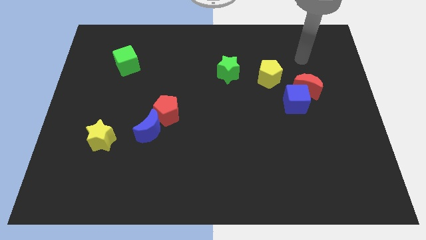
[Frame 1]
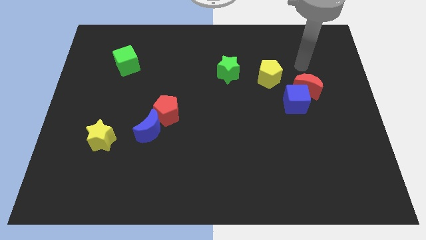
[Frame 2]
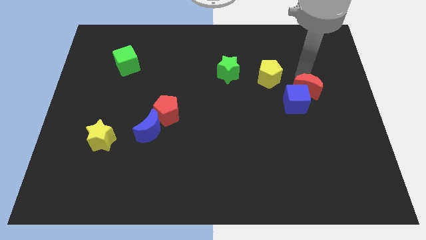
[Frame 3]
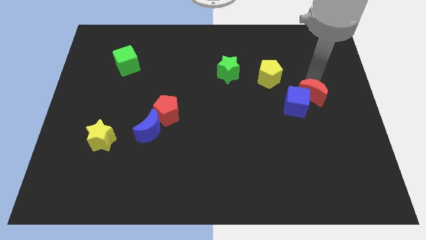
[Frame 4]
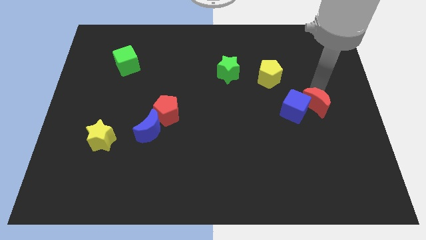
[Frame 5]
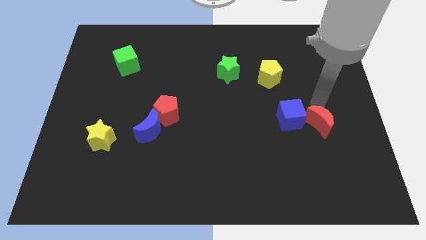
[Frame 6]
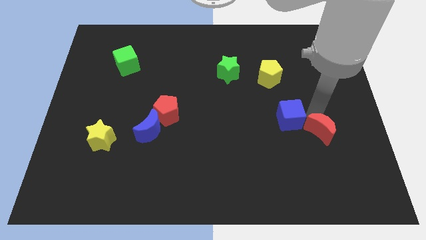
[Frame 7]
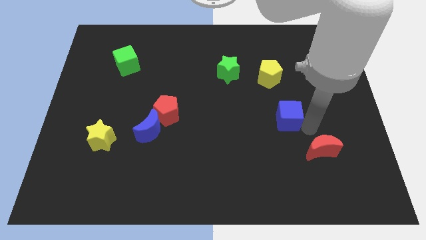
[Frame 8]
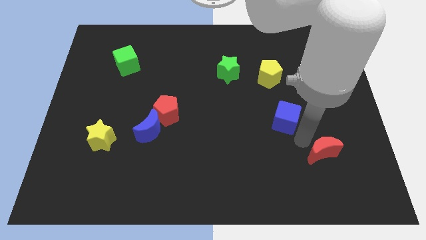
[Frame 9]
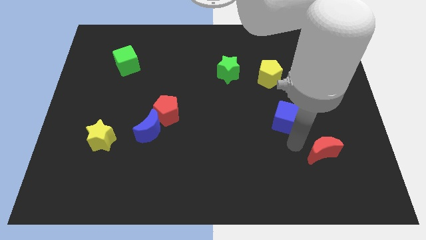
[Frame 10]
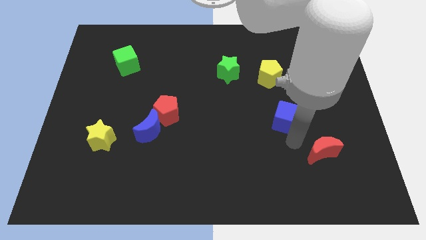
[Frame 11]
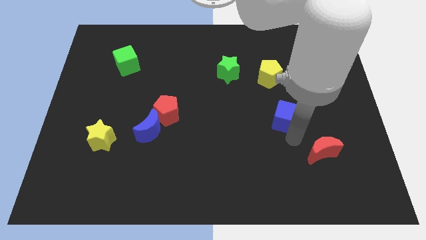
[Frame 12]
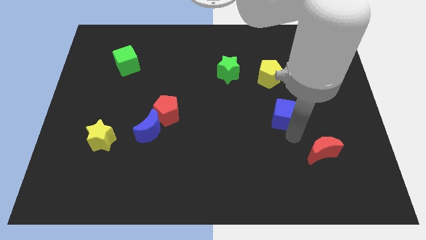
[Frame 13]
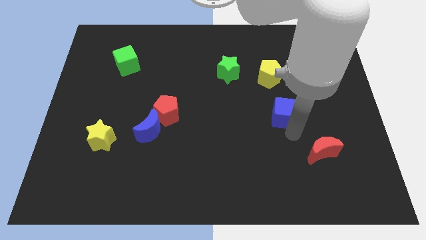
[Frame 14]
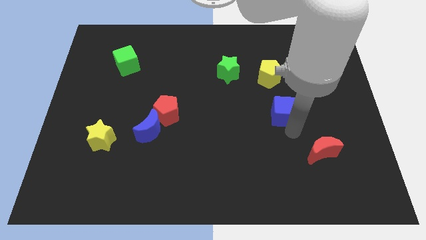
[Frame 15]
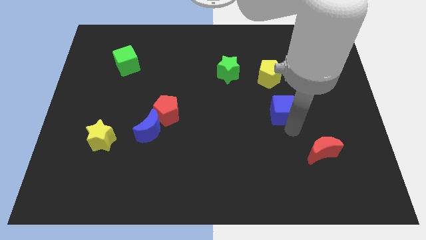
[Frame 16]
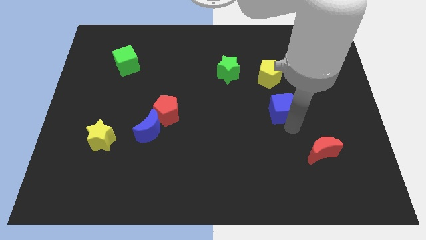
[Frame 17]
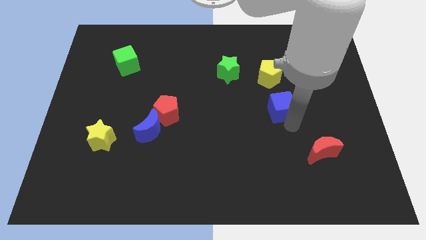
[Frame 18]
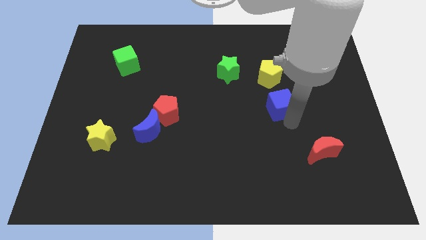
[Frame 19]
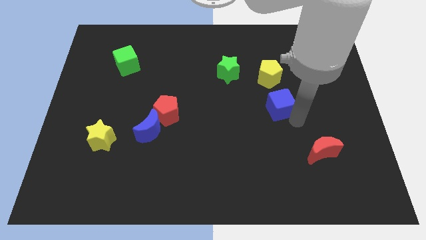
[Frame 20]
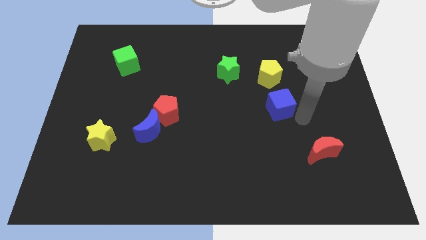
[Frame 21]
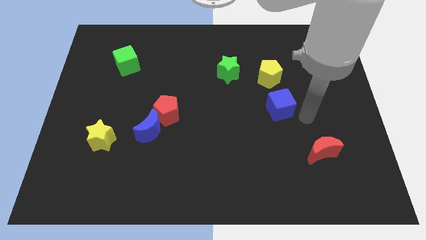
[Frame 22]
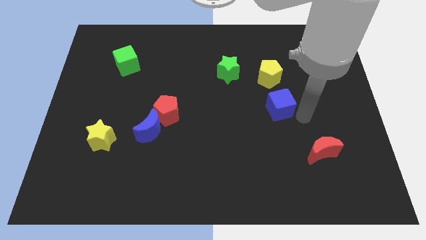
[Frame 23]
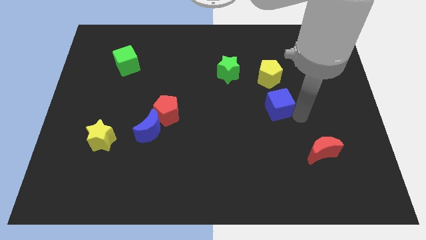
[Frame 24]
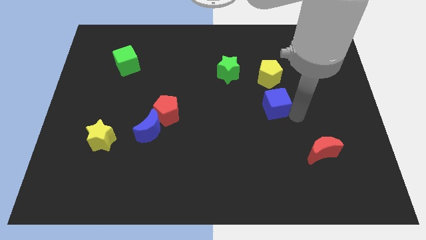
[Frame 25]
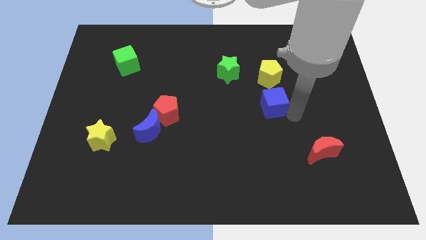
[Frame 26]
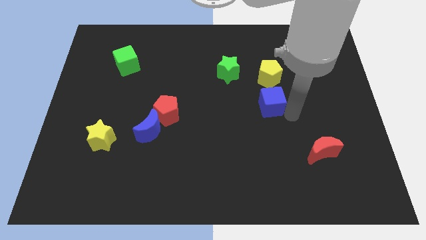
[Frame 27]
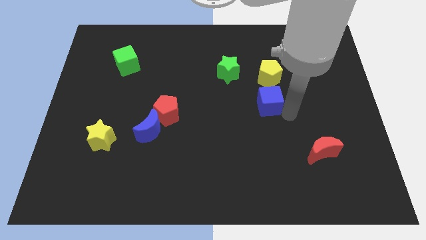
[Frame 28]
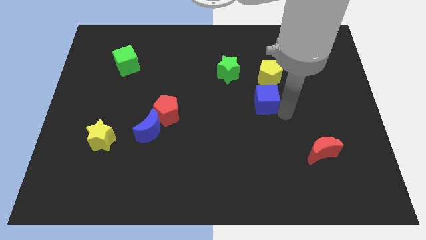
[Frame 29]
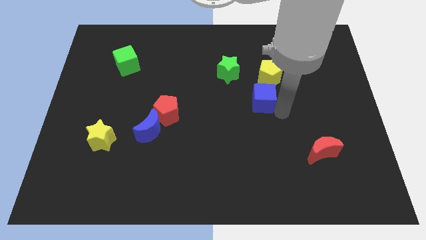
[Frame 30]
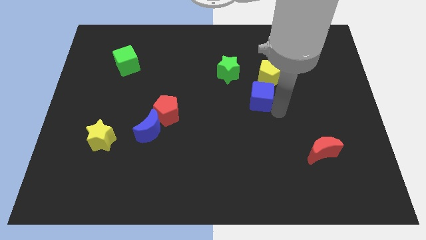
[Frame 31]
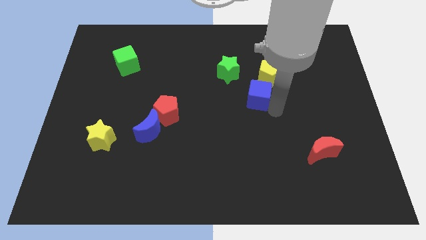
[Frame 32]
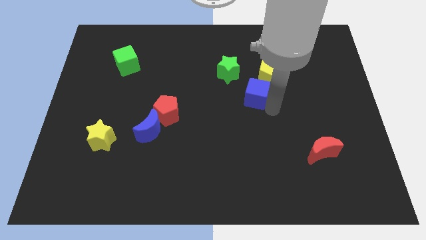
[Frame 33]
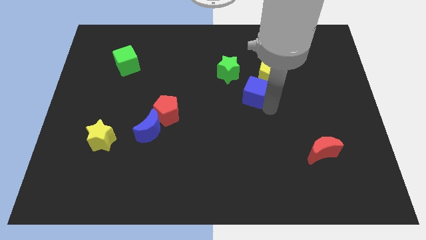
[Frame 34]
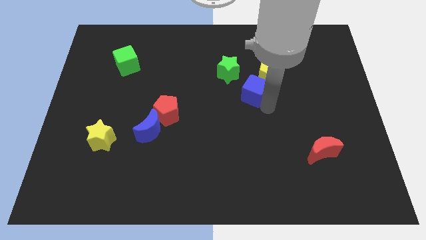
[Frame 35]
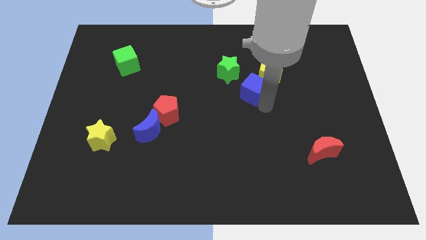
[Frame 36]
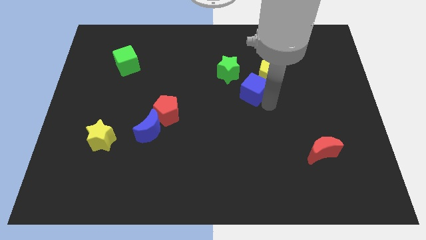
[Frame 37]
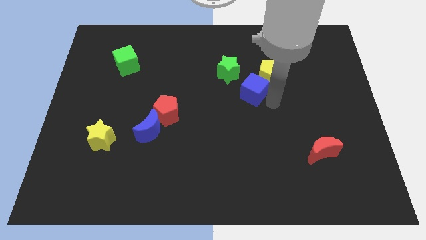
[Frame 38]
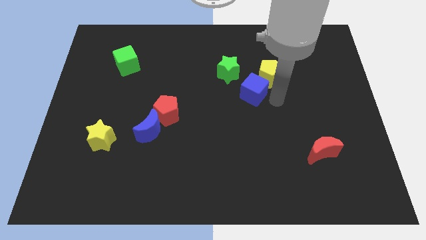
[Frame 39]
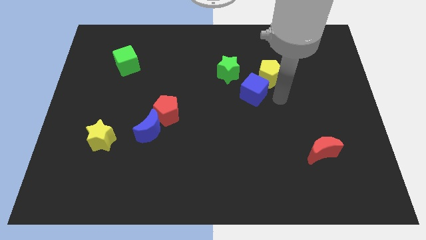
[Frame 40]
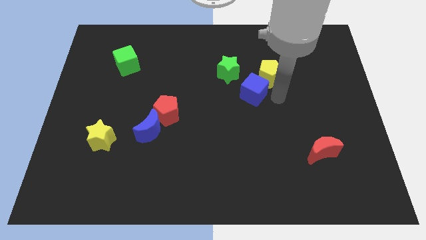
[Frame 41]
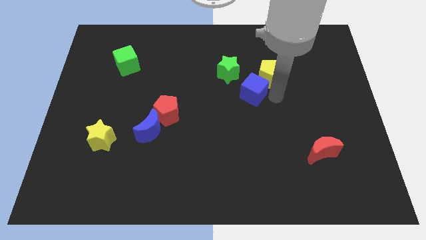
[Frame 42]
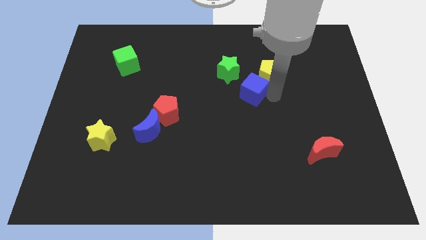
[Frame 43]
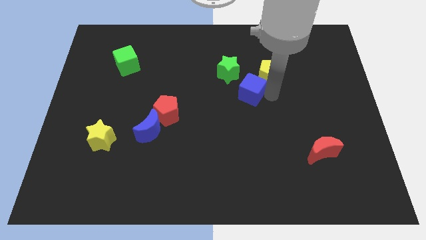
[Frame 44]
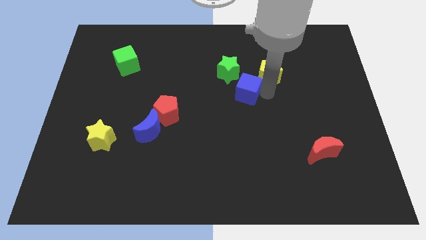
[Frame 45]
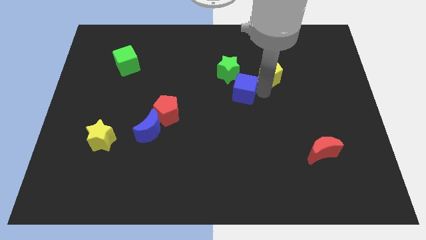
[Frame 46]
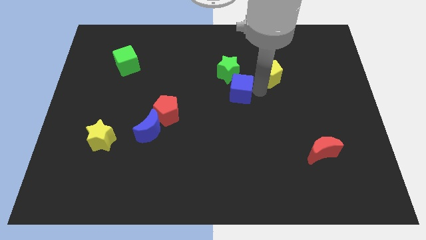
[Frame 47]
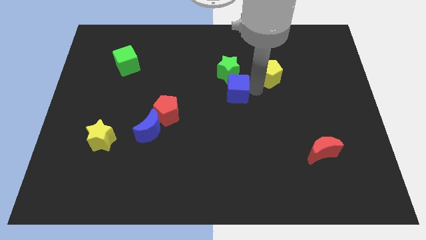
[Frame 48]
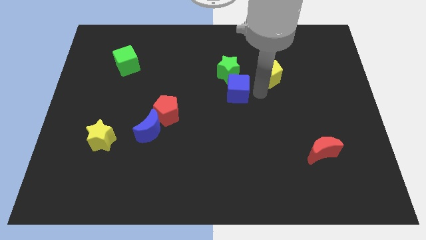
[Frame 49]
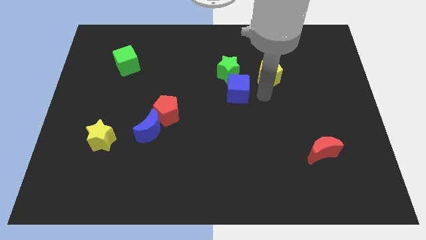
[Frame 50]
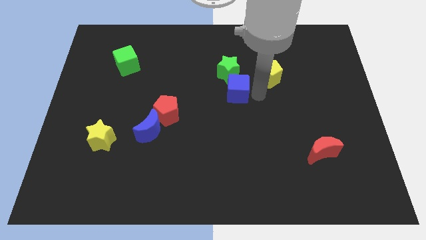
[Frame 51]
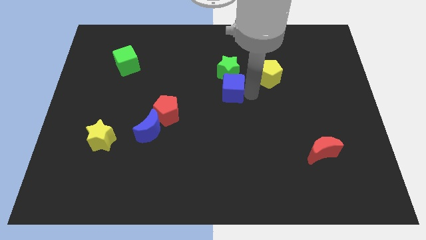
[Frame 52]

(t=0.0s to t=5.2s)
move the blue cube diagonally down and to the left of the green star

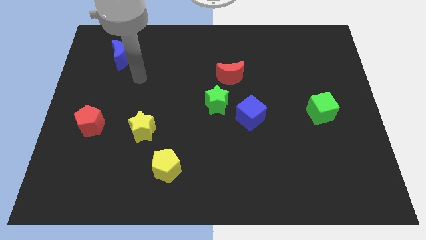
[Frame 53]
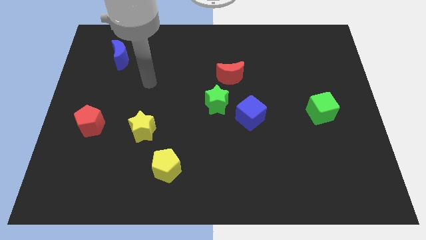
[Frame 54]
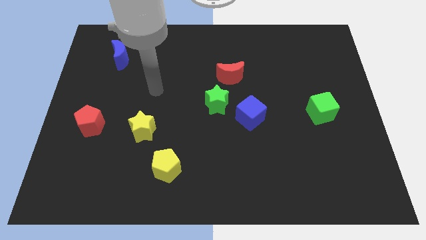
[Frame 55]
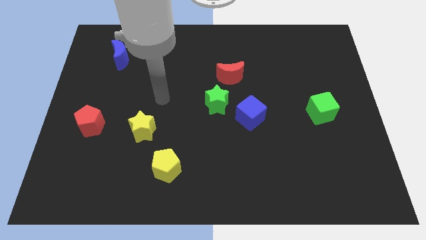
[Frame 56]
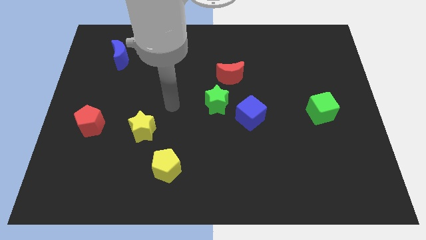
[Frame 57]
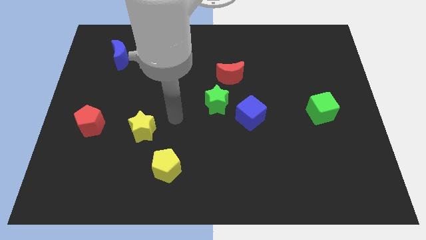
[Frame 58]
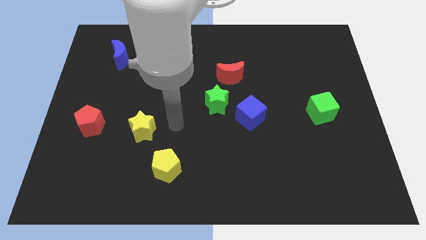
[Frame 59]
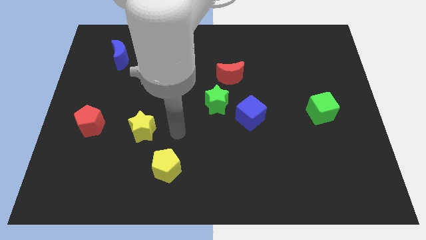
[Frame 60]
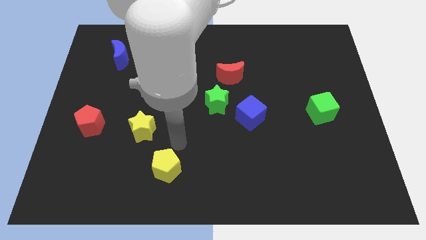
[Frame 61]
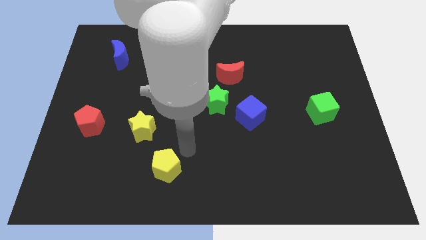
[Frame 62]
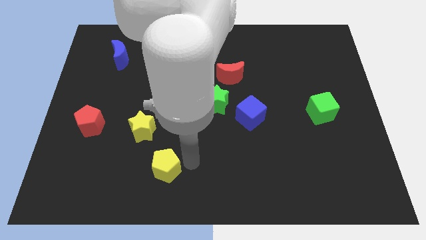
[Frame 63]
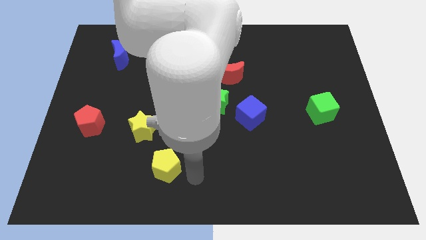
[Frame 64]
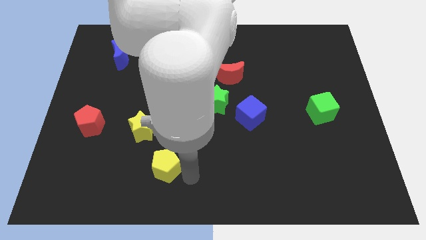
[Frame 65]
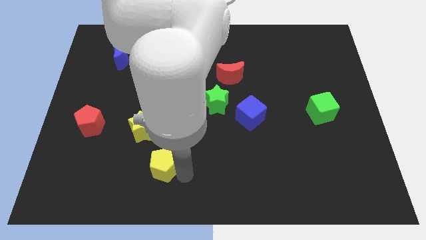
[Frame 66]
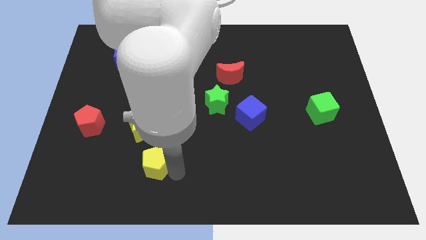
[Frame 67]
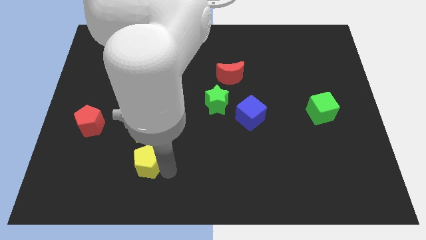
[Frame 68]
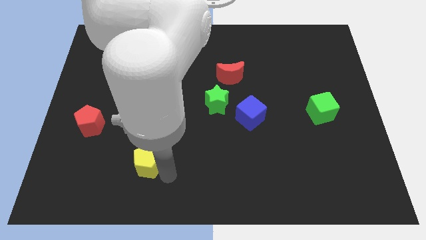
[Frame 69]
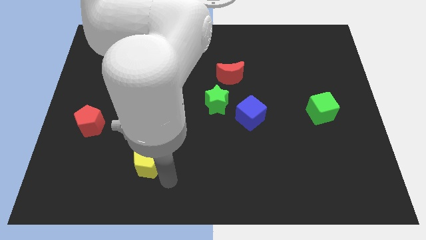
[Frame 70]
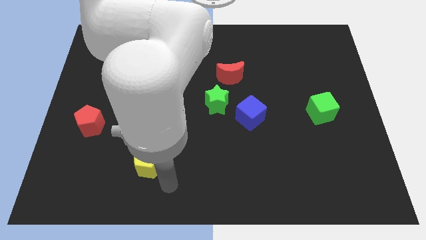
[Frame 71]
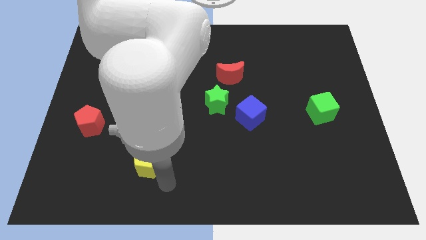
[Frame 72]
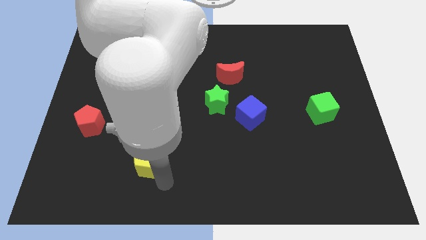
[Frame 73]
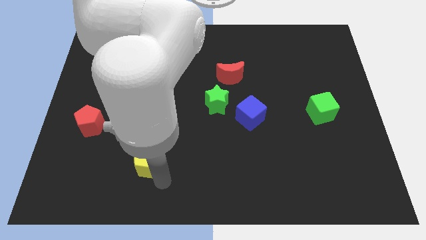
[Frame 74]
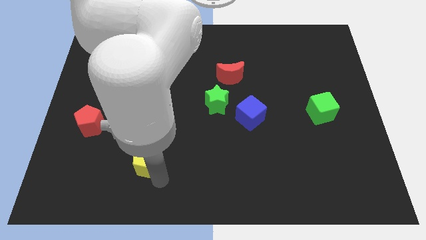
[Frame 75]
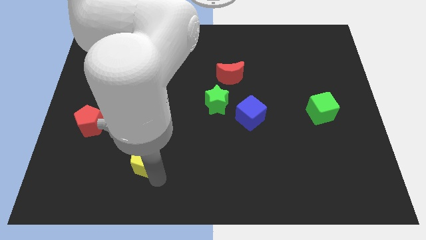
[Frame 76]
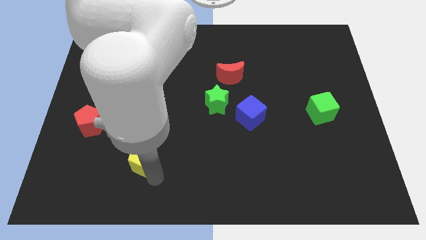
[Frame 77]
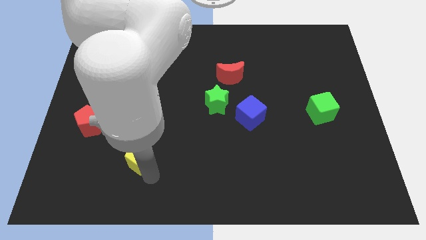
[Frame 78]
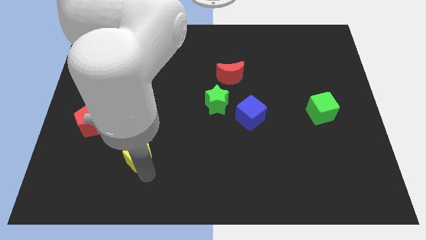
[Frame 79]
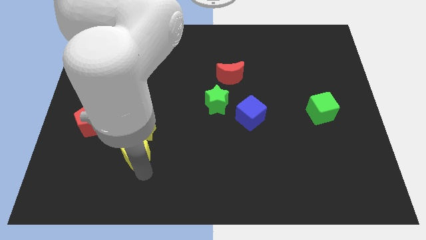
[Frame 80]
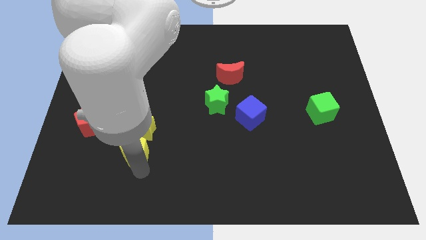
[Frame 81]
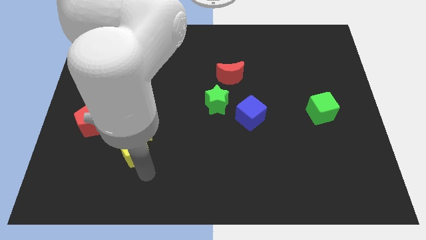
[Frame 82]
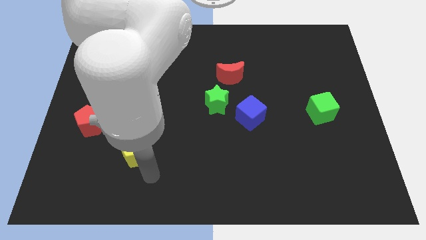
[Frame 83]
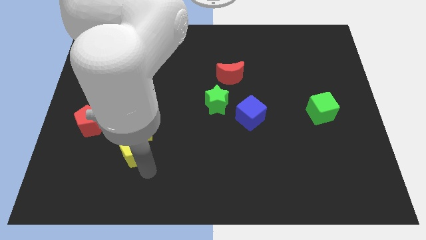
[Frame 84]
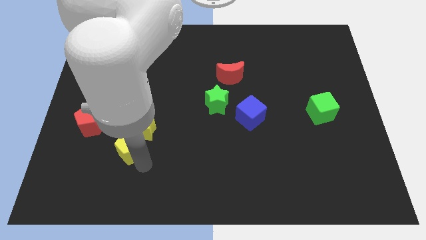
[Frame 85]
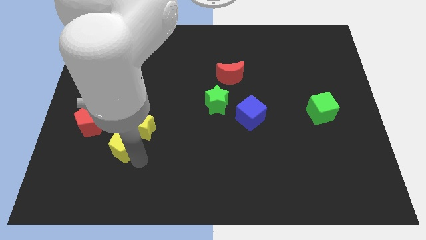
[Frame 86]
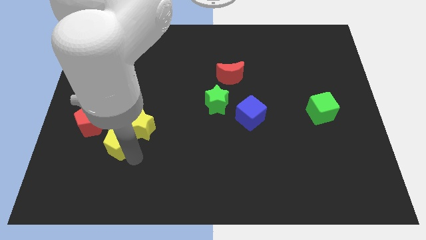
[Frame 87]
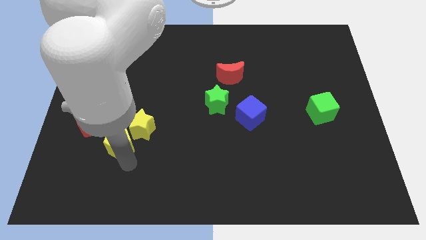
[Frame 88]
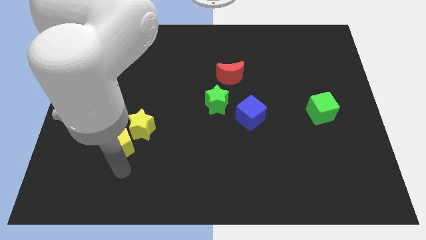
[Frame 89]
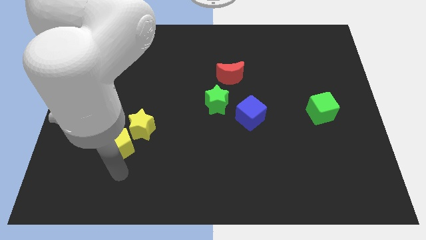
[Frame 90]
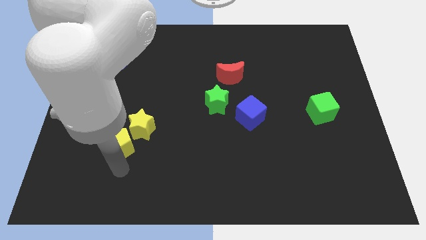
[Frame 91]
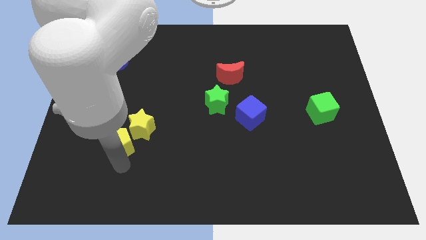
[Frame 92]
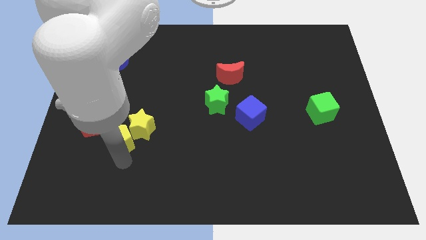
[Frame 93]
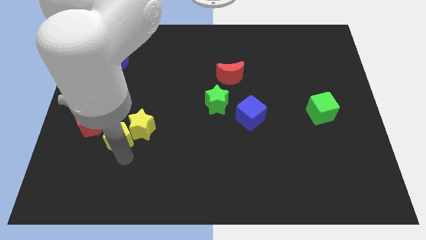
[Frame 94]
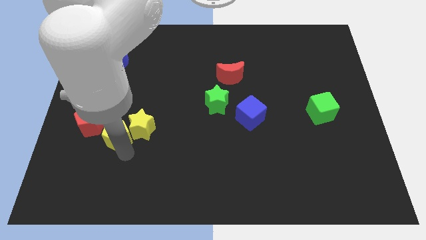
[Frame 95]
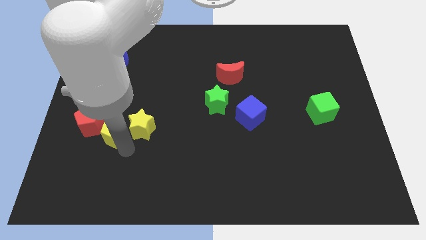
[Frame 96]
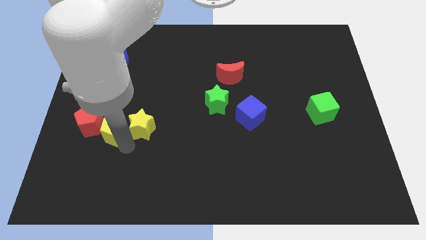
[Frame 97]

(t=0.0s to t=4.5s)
move the yellow pentagon to the top left of the yellow star
